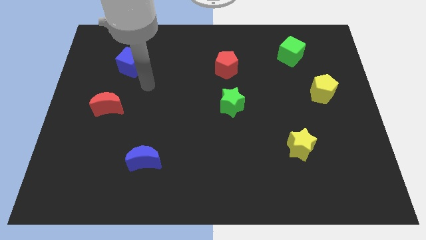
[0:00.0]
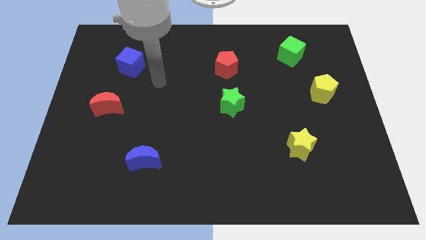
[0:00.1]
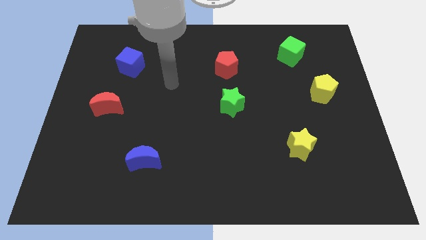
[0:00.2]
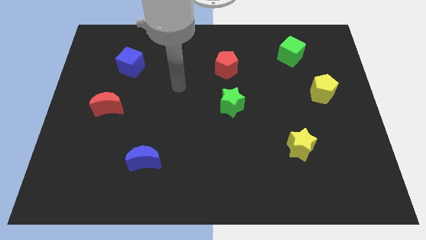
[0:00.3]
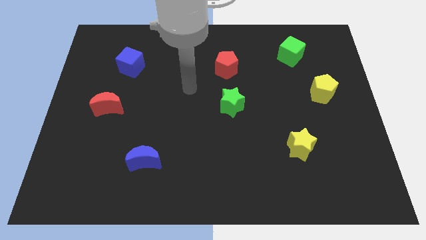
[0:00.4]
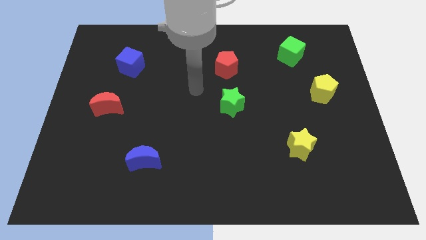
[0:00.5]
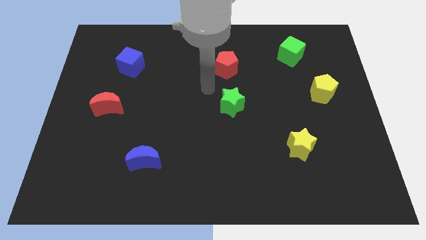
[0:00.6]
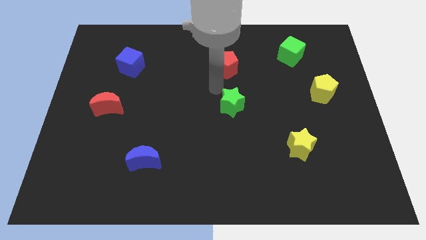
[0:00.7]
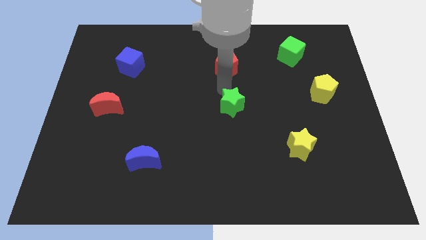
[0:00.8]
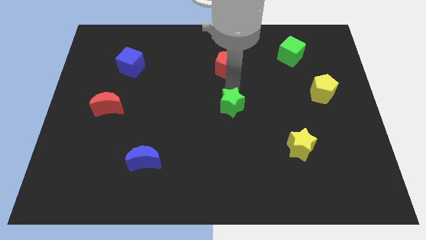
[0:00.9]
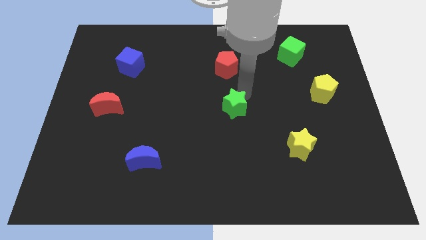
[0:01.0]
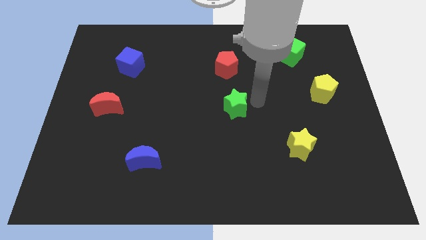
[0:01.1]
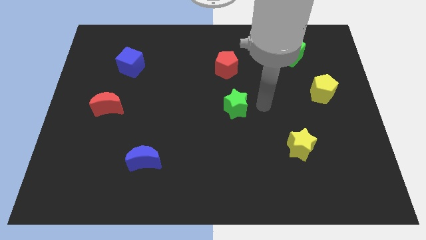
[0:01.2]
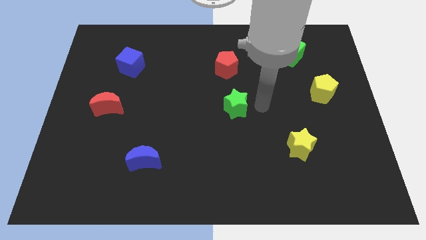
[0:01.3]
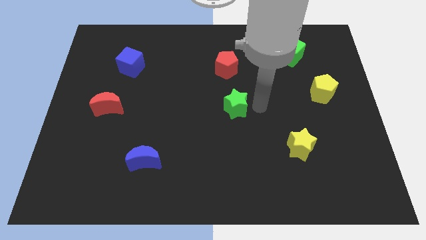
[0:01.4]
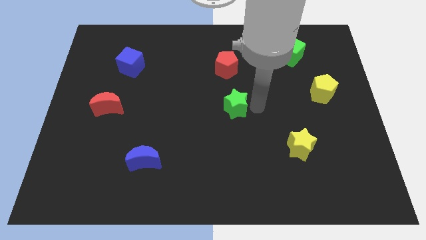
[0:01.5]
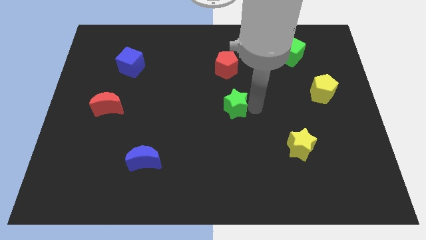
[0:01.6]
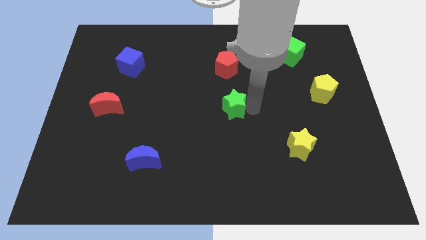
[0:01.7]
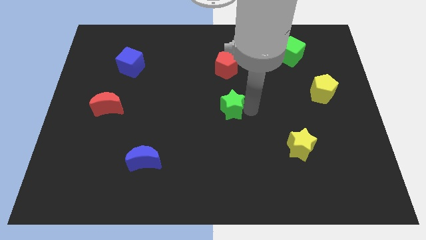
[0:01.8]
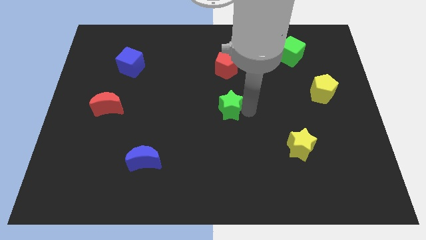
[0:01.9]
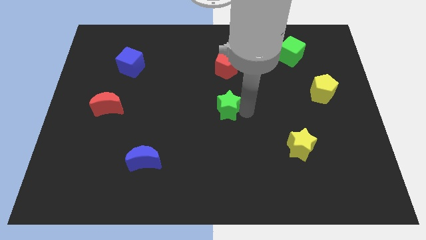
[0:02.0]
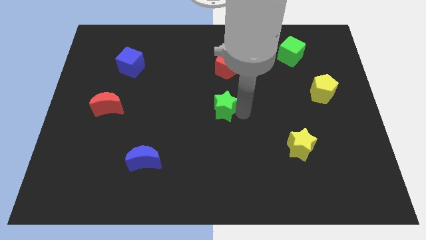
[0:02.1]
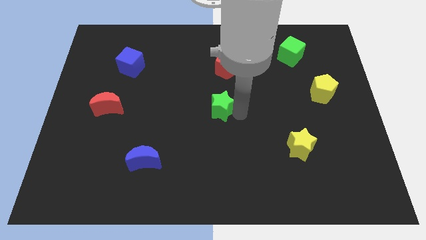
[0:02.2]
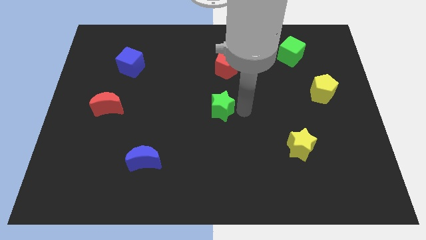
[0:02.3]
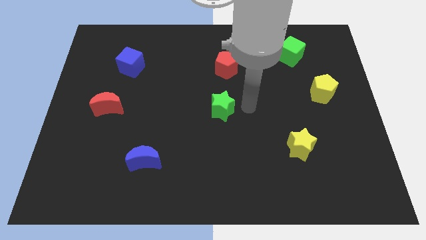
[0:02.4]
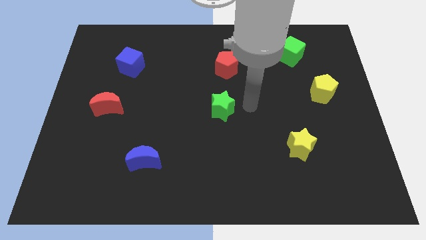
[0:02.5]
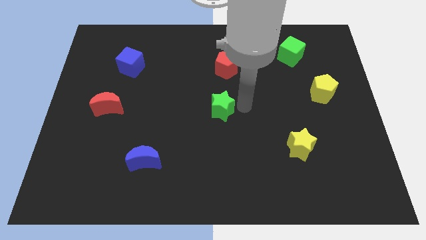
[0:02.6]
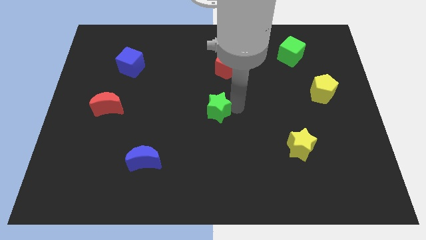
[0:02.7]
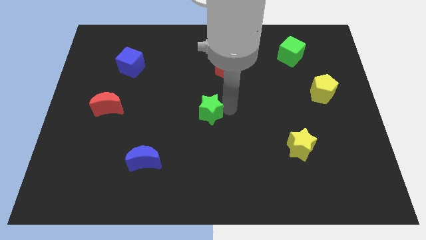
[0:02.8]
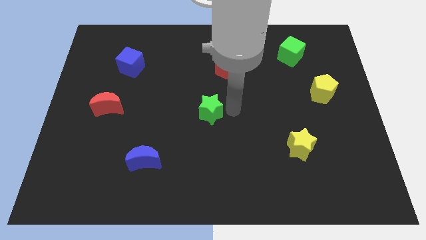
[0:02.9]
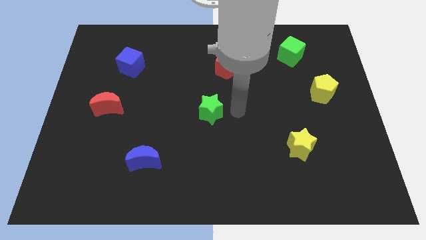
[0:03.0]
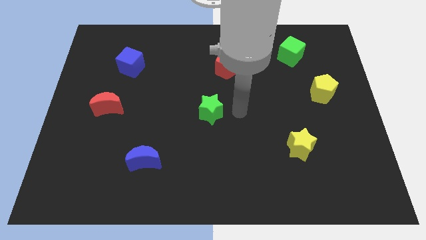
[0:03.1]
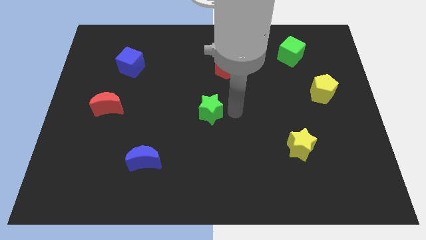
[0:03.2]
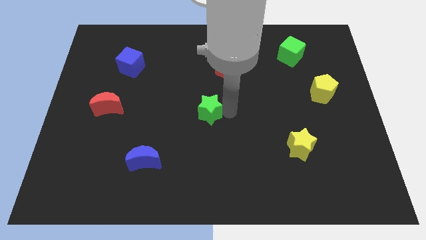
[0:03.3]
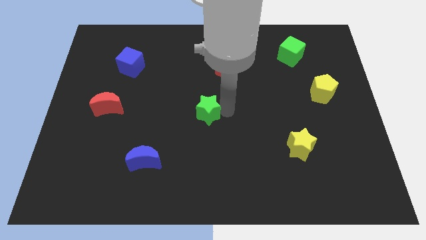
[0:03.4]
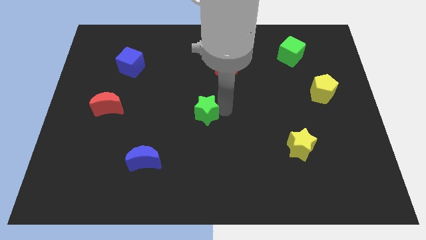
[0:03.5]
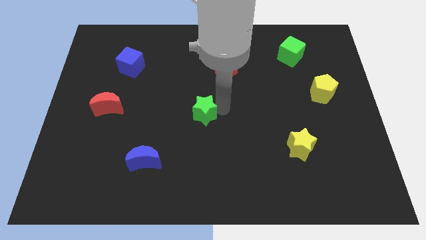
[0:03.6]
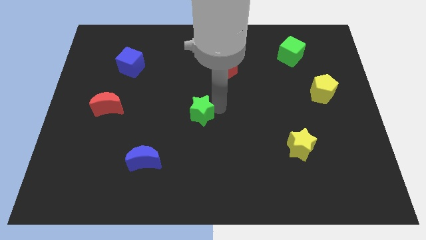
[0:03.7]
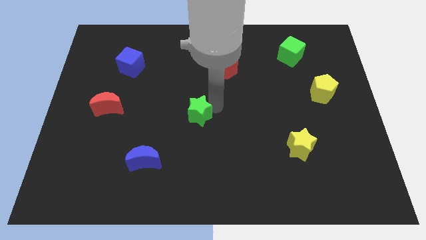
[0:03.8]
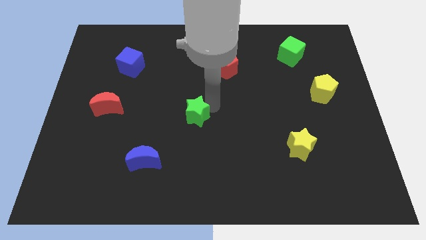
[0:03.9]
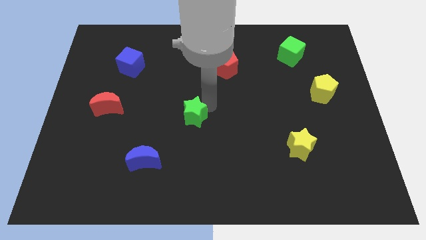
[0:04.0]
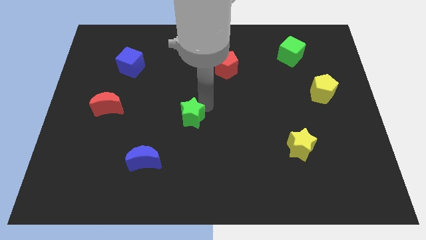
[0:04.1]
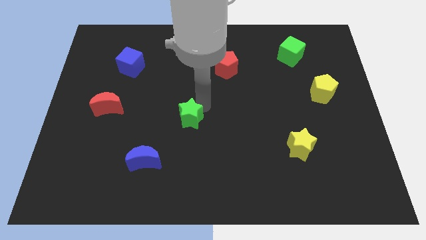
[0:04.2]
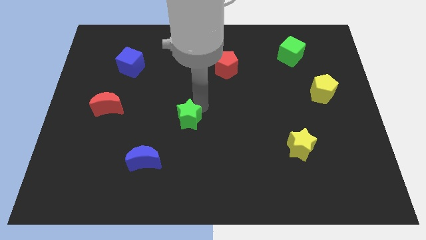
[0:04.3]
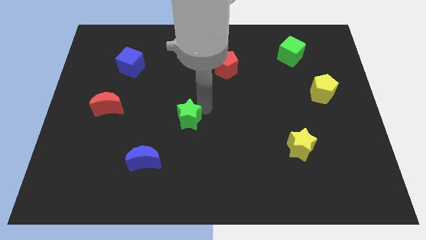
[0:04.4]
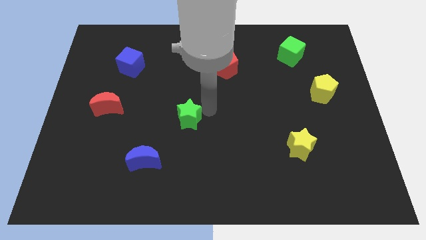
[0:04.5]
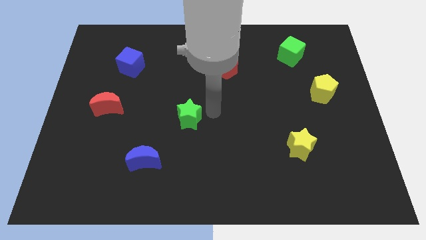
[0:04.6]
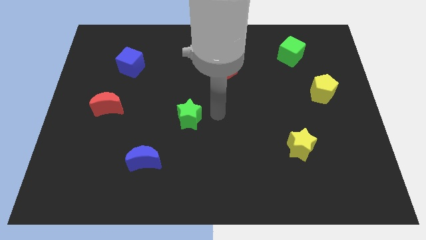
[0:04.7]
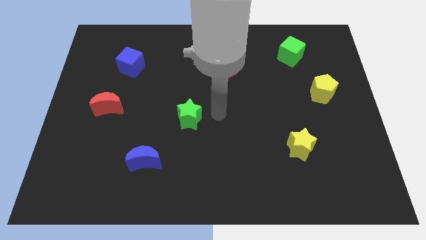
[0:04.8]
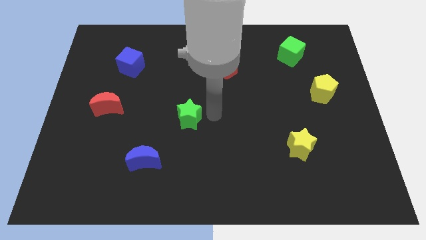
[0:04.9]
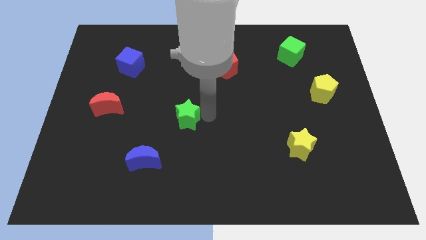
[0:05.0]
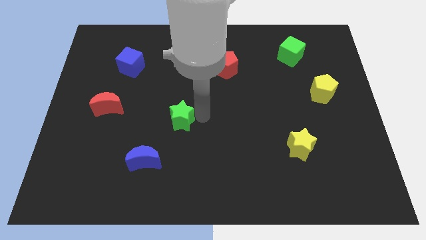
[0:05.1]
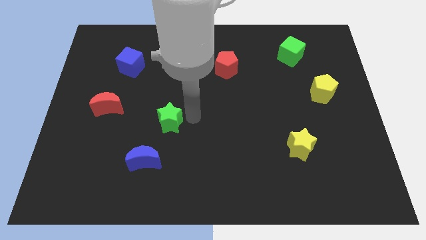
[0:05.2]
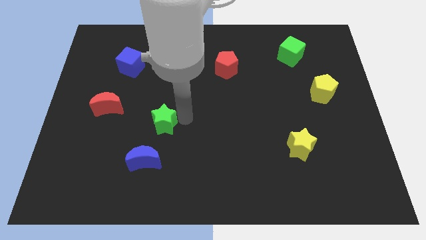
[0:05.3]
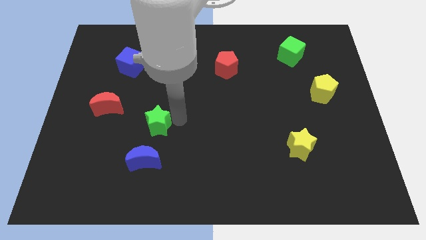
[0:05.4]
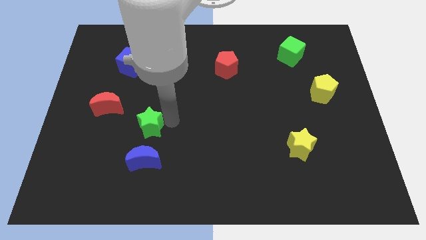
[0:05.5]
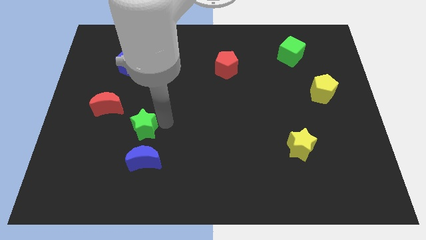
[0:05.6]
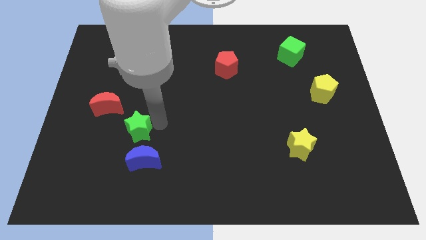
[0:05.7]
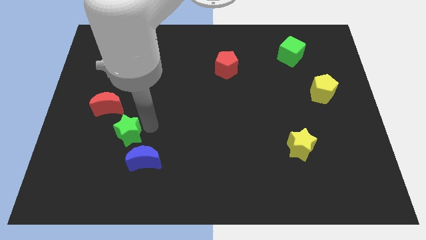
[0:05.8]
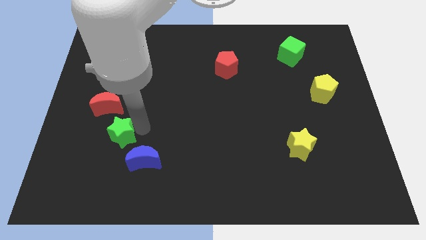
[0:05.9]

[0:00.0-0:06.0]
push the green star to the bottom side of the red moon
